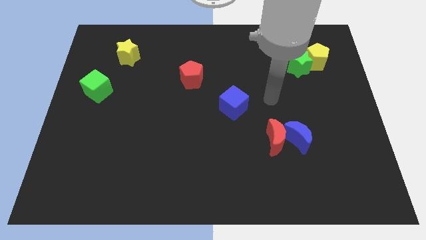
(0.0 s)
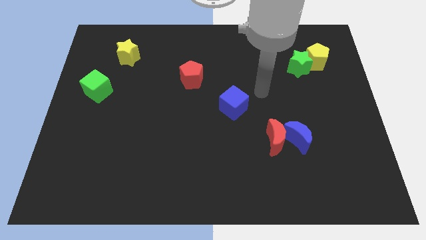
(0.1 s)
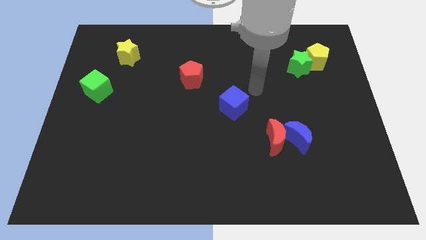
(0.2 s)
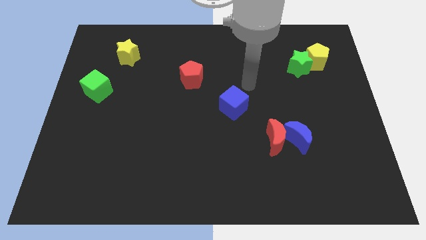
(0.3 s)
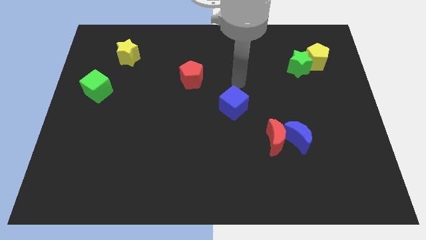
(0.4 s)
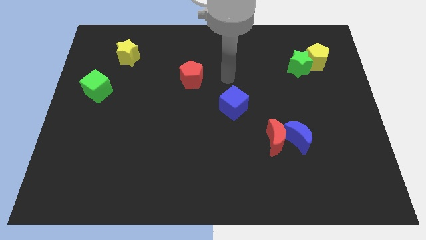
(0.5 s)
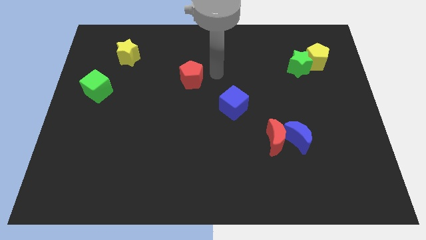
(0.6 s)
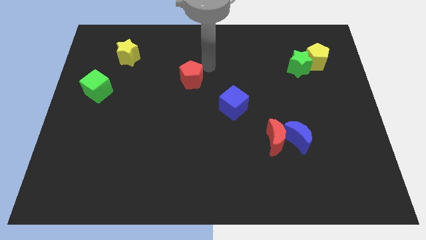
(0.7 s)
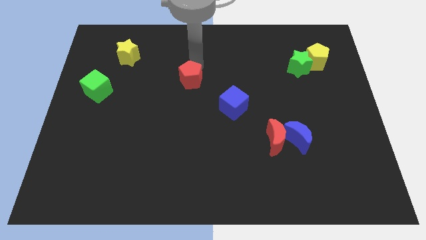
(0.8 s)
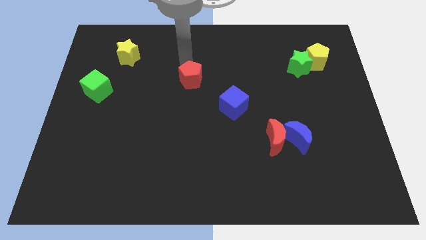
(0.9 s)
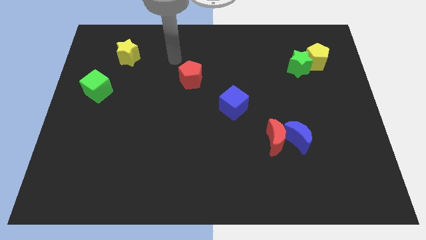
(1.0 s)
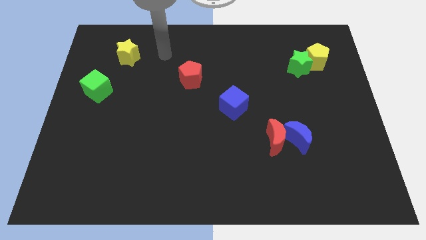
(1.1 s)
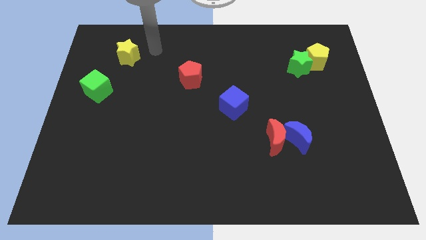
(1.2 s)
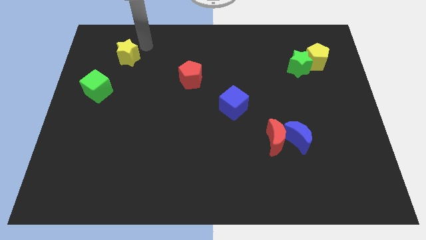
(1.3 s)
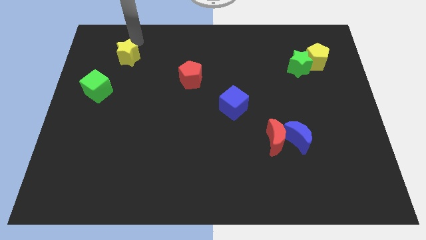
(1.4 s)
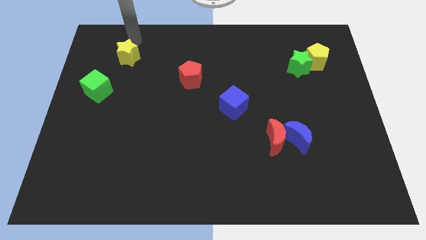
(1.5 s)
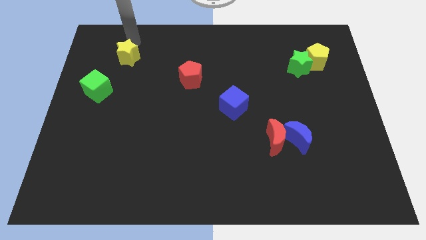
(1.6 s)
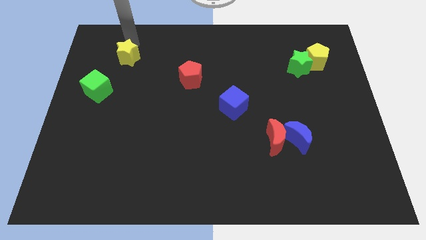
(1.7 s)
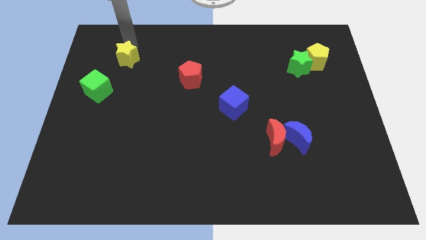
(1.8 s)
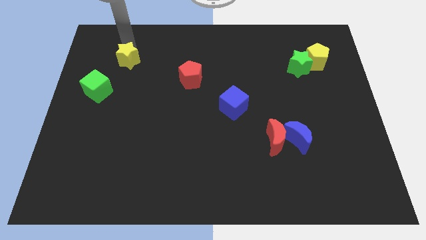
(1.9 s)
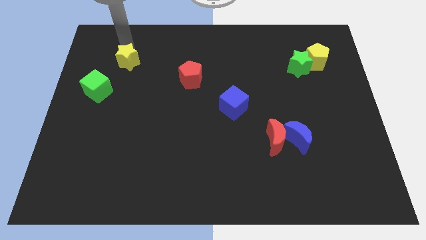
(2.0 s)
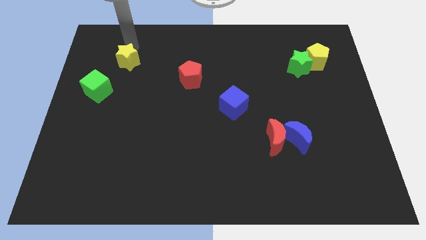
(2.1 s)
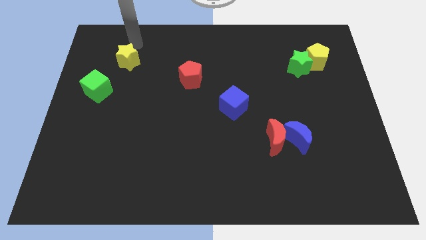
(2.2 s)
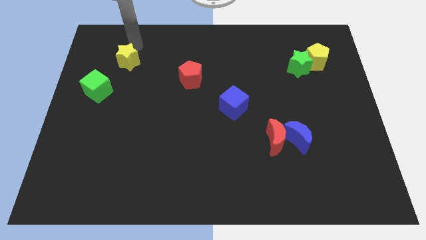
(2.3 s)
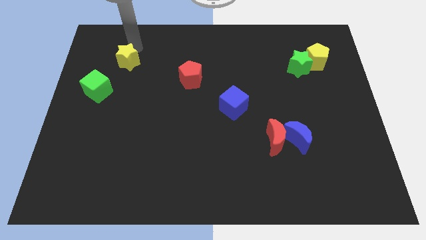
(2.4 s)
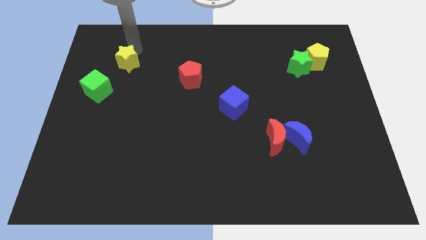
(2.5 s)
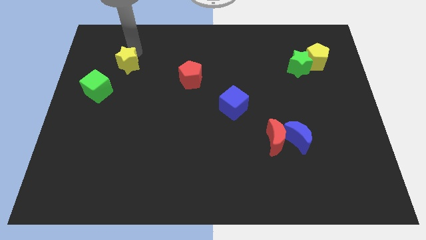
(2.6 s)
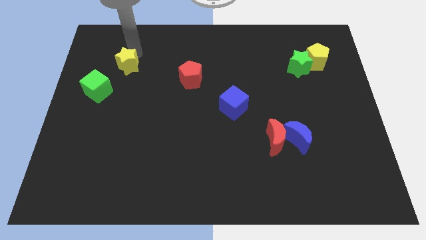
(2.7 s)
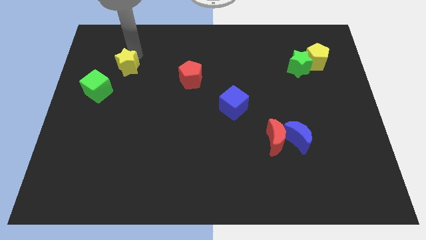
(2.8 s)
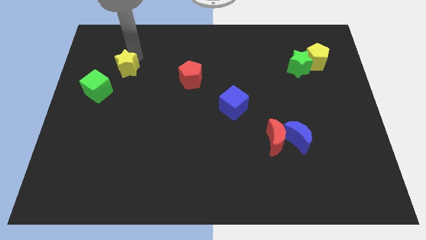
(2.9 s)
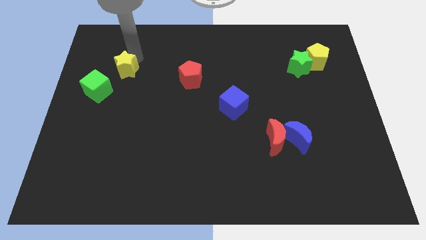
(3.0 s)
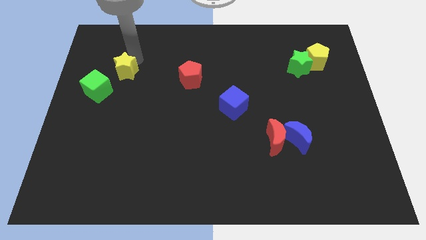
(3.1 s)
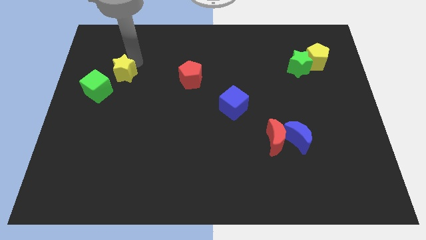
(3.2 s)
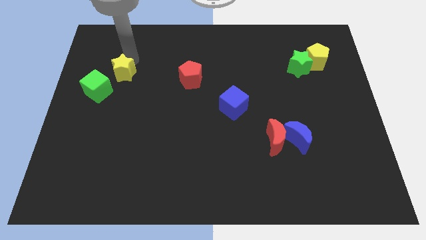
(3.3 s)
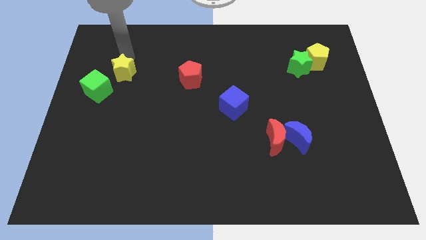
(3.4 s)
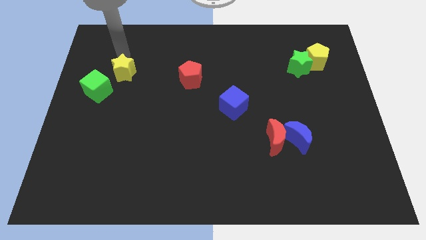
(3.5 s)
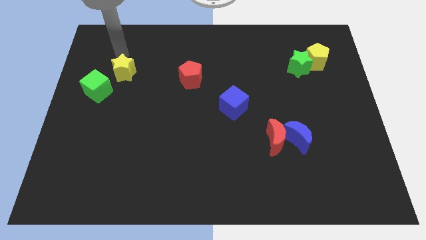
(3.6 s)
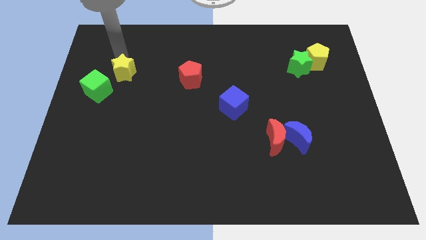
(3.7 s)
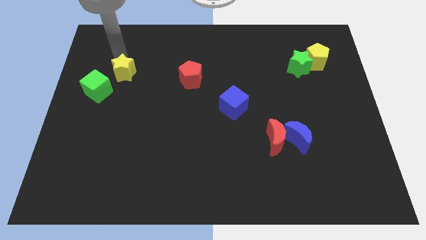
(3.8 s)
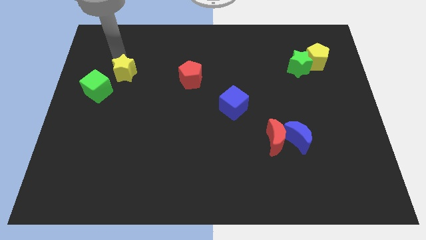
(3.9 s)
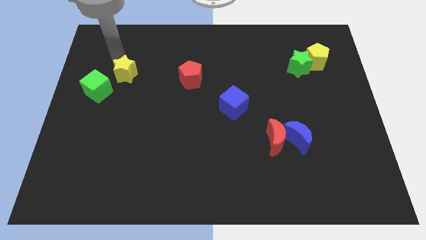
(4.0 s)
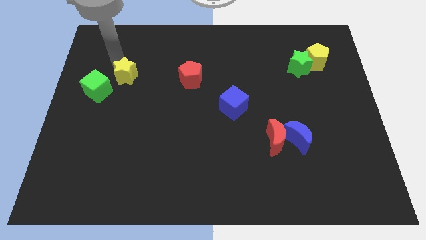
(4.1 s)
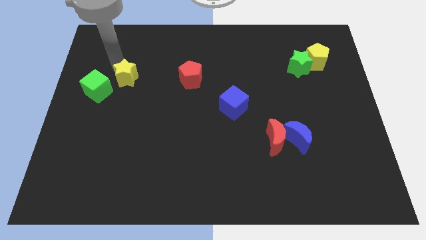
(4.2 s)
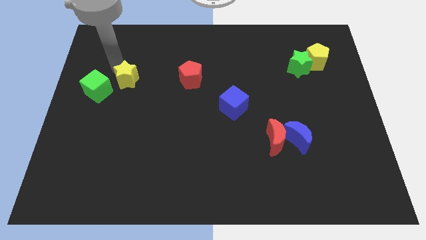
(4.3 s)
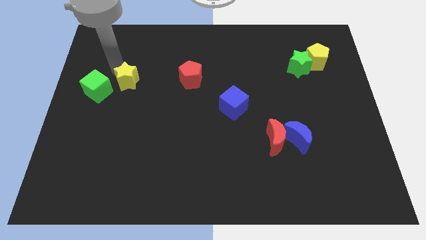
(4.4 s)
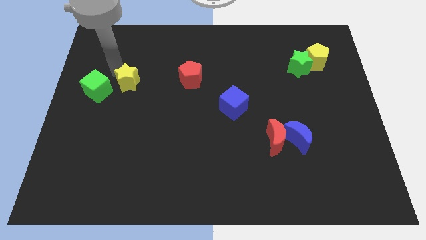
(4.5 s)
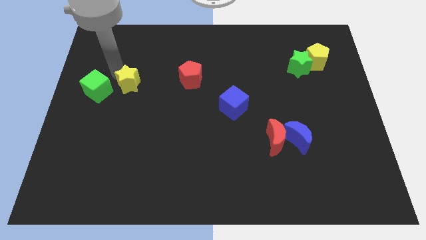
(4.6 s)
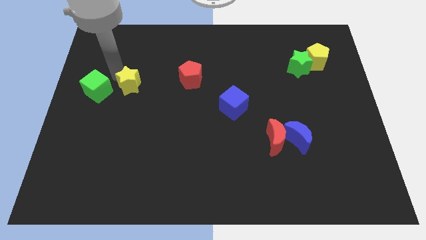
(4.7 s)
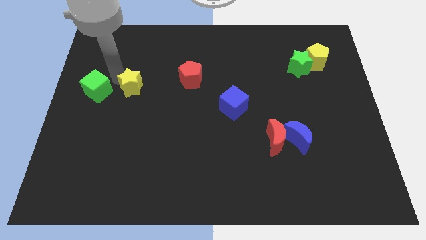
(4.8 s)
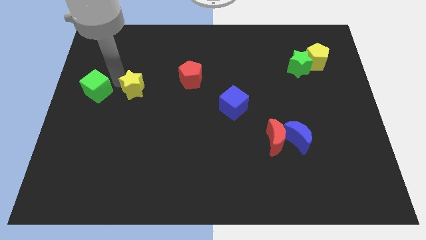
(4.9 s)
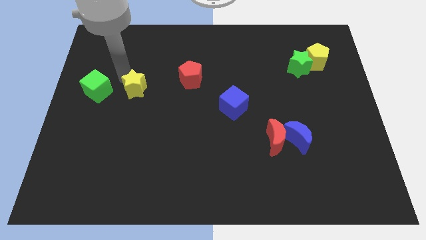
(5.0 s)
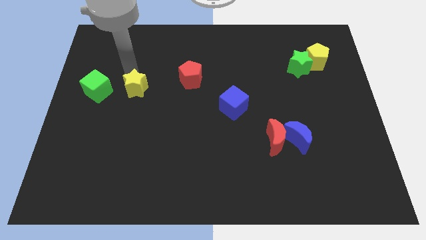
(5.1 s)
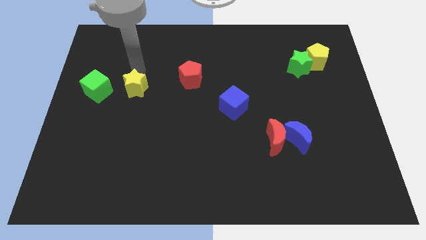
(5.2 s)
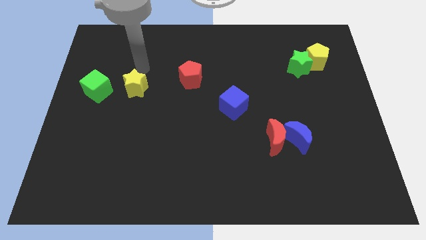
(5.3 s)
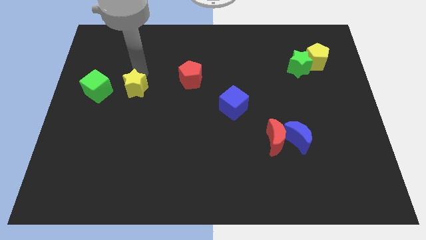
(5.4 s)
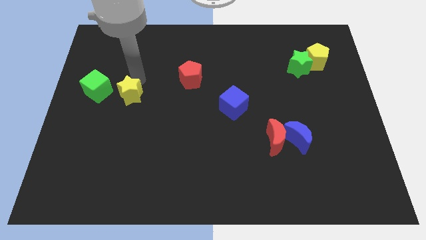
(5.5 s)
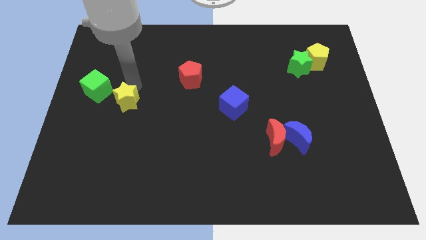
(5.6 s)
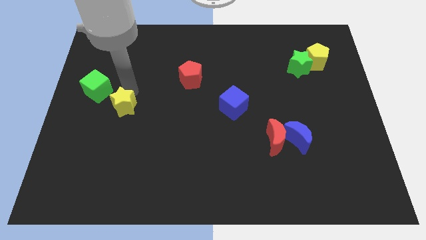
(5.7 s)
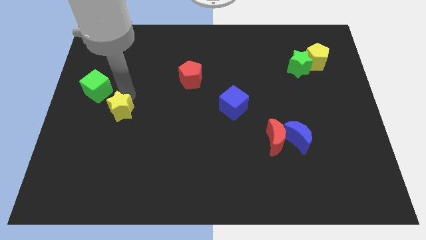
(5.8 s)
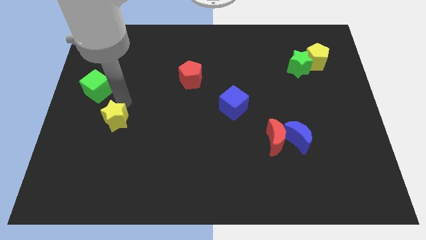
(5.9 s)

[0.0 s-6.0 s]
push the yellow star downwards

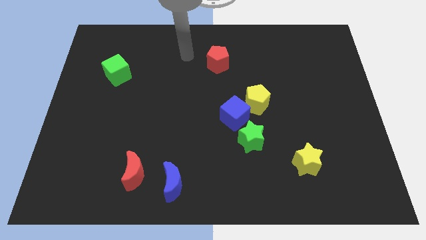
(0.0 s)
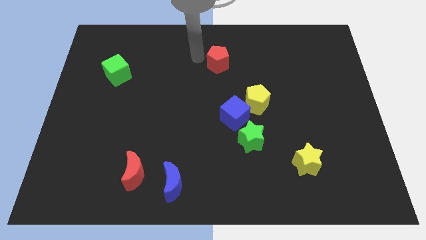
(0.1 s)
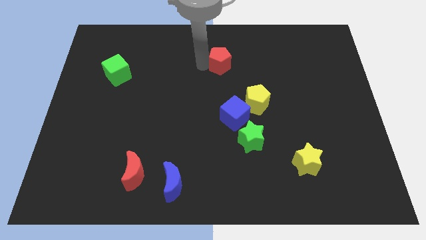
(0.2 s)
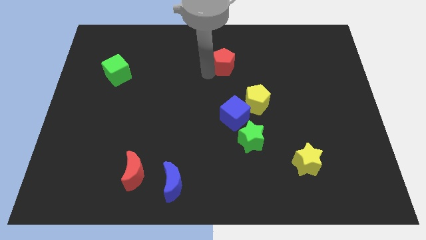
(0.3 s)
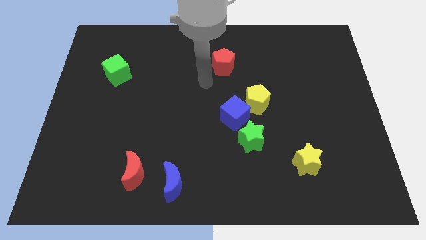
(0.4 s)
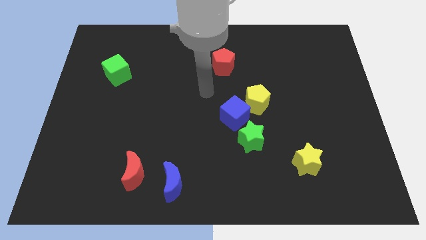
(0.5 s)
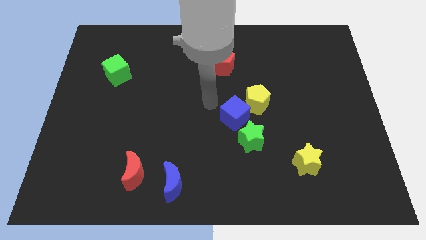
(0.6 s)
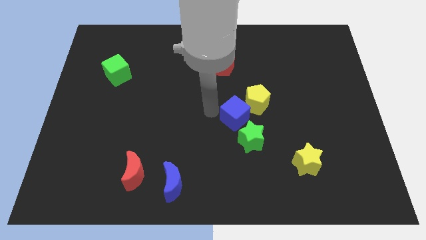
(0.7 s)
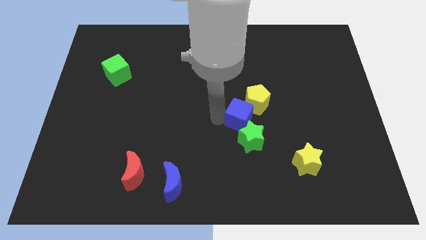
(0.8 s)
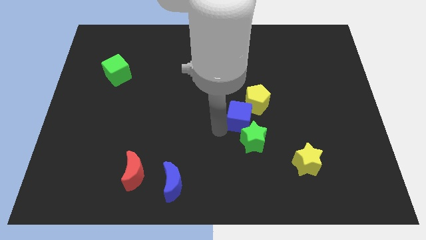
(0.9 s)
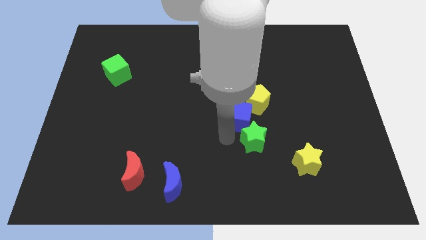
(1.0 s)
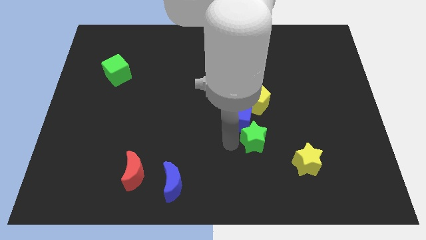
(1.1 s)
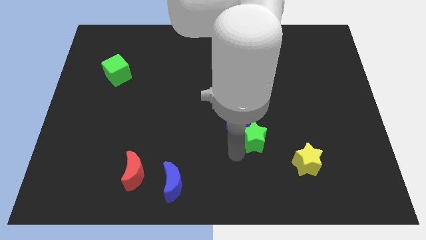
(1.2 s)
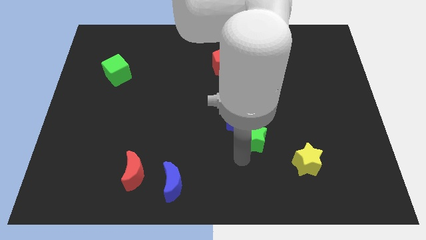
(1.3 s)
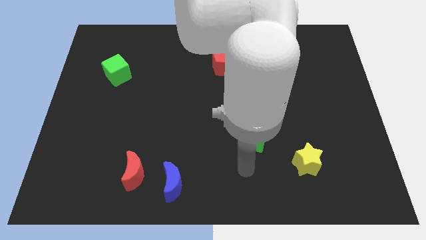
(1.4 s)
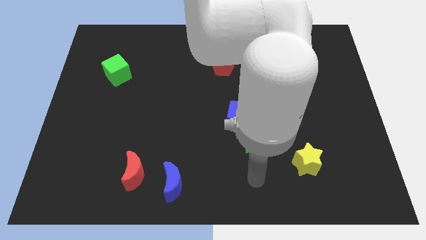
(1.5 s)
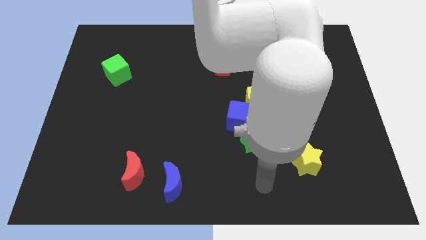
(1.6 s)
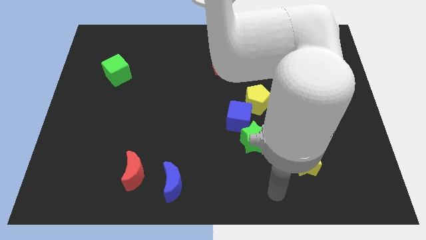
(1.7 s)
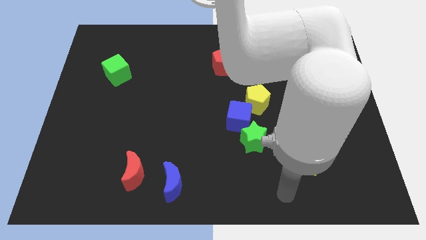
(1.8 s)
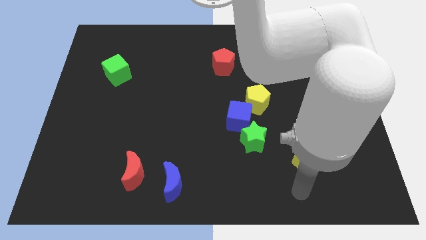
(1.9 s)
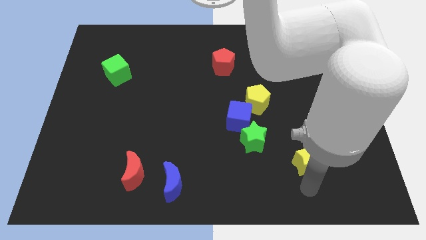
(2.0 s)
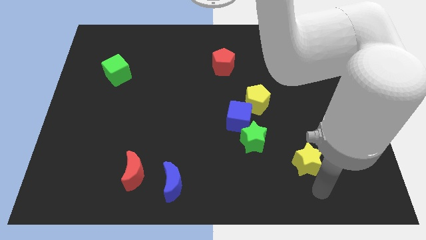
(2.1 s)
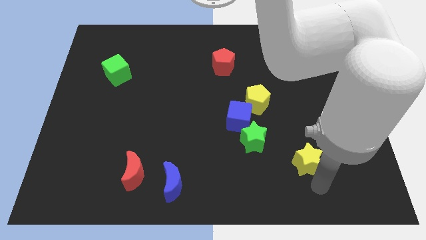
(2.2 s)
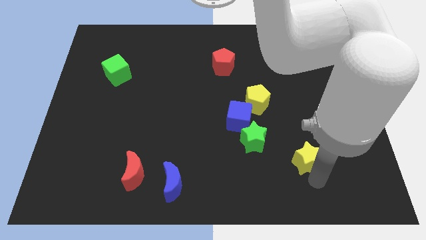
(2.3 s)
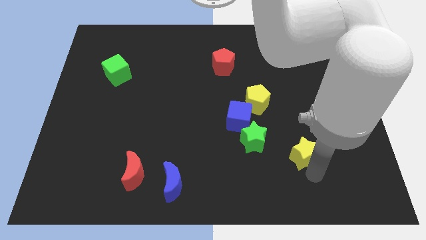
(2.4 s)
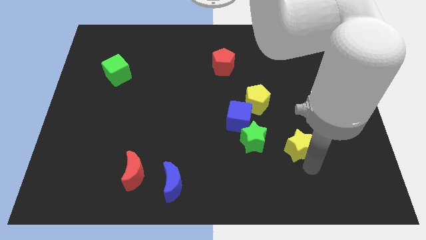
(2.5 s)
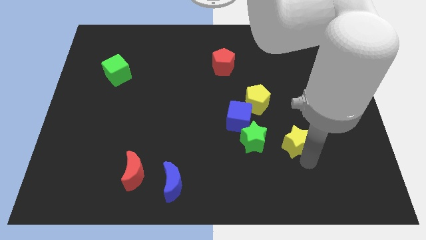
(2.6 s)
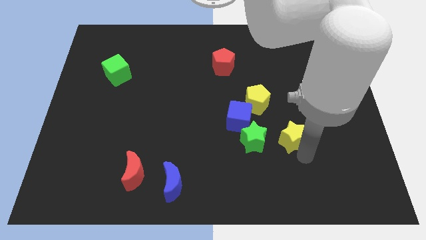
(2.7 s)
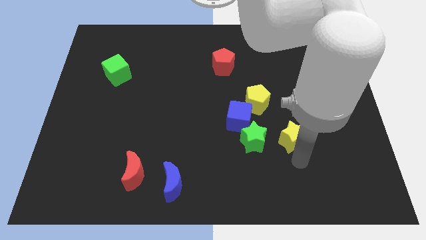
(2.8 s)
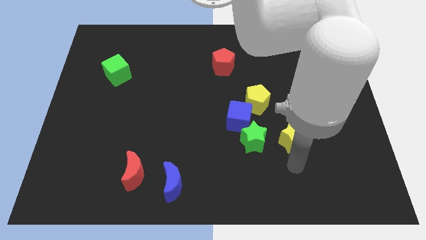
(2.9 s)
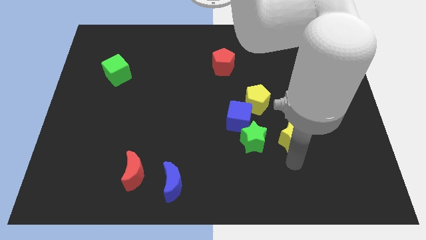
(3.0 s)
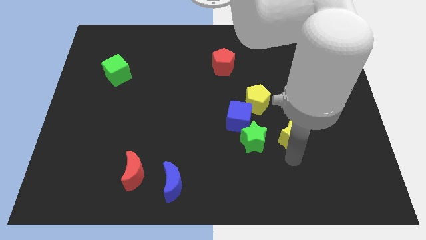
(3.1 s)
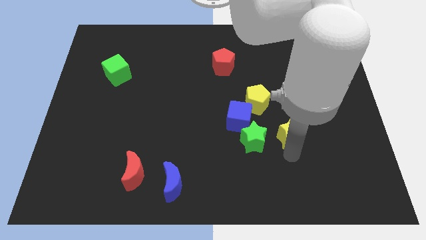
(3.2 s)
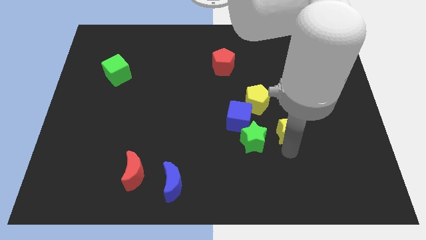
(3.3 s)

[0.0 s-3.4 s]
slightly push the yellow star upwards
